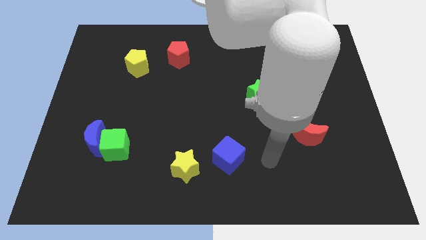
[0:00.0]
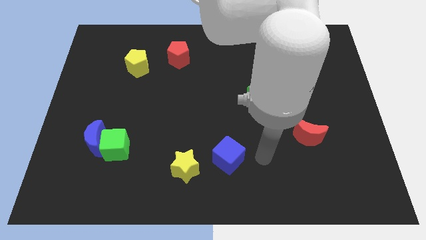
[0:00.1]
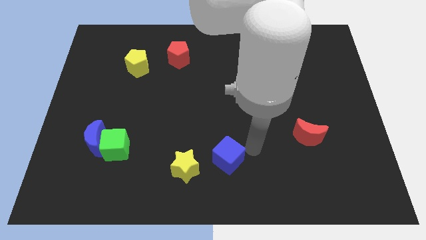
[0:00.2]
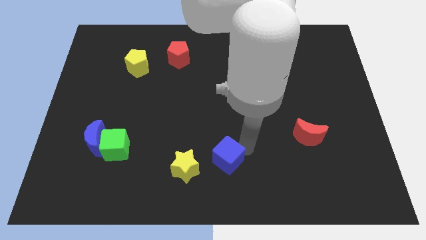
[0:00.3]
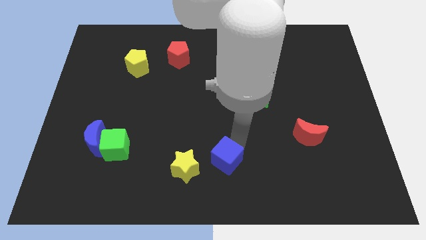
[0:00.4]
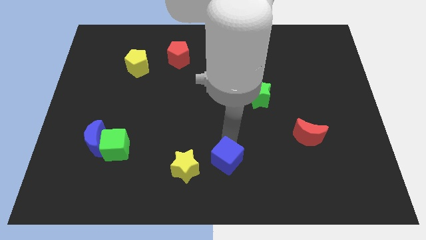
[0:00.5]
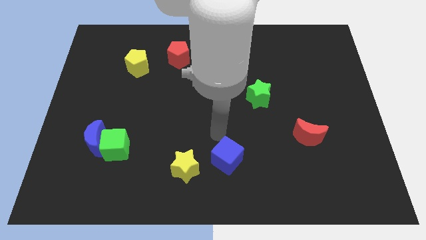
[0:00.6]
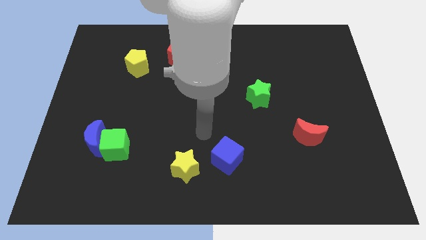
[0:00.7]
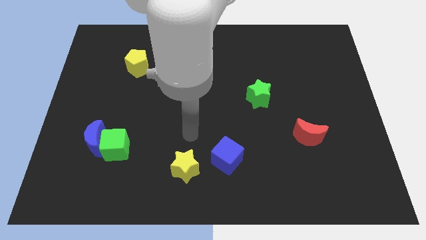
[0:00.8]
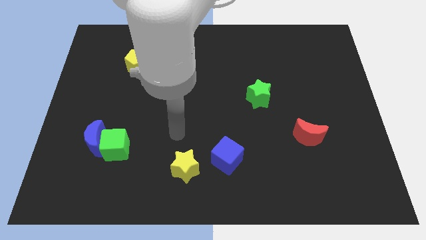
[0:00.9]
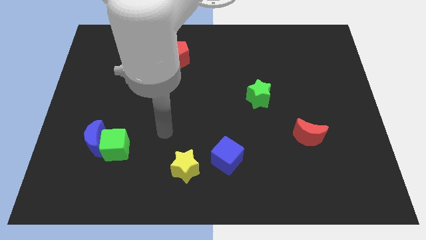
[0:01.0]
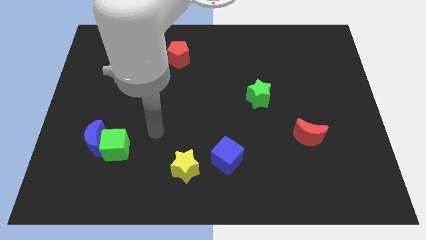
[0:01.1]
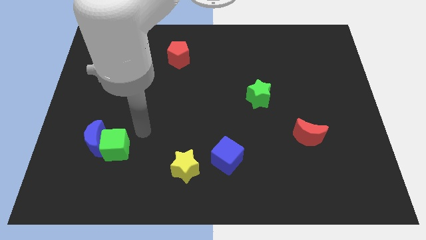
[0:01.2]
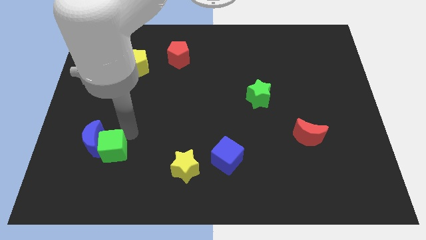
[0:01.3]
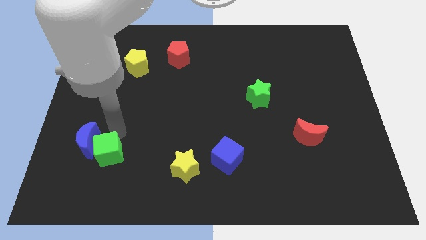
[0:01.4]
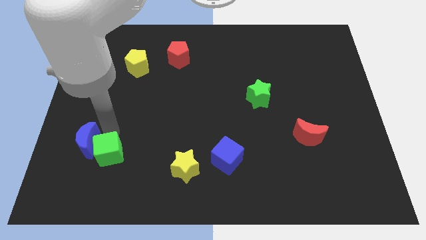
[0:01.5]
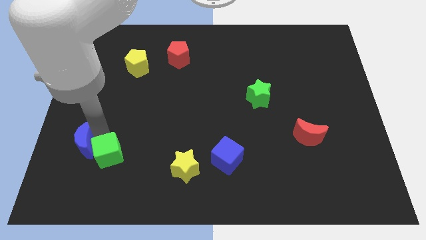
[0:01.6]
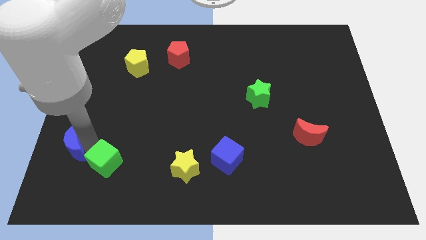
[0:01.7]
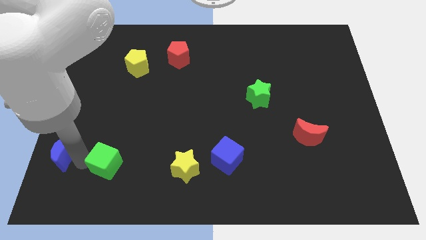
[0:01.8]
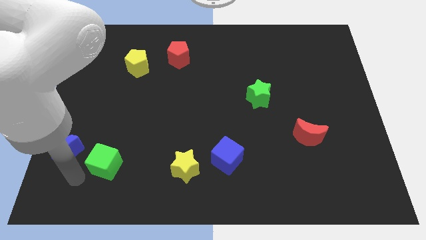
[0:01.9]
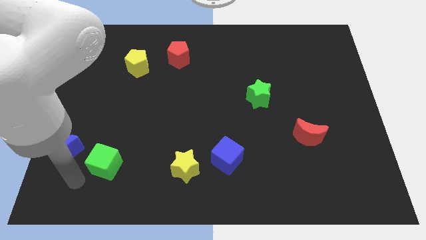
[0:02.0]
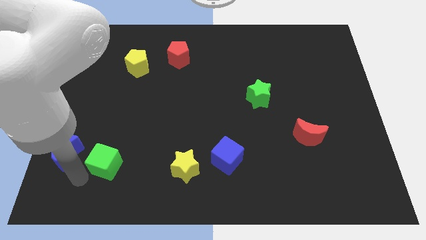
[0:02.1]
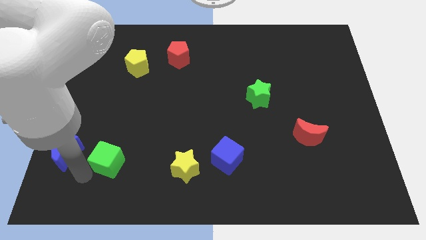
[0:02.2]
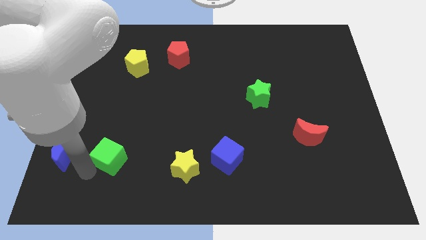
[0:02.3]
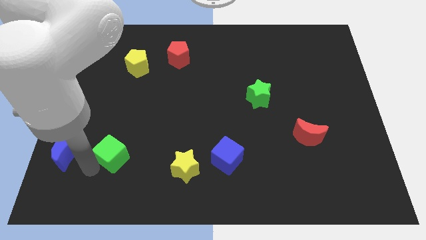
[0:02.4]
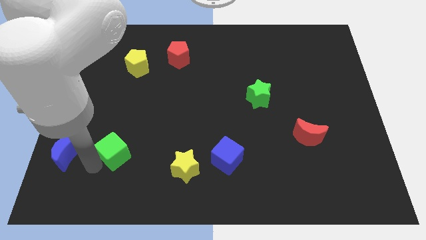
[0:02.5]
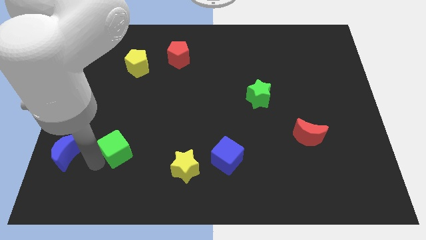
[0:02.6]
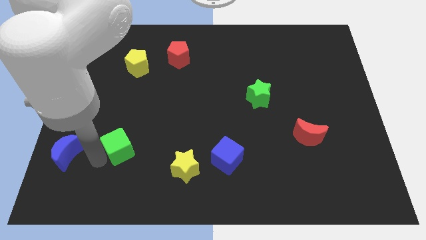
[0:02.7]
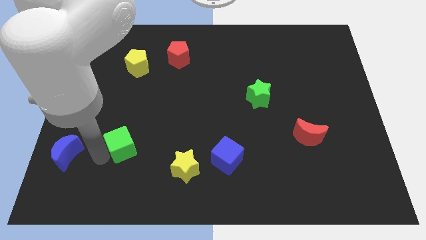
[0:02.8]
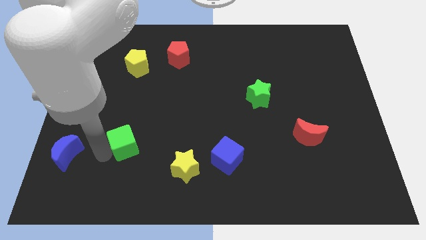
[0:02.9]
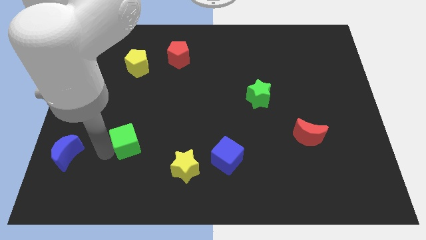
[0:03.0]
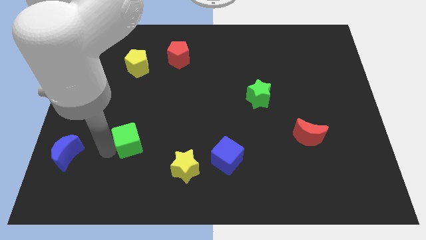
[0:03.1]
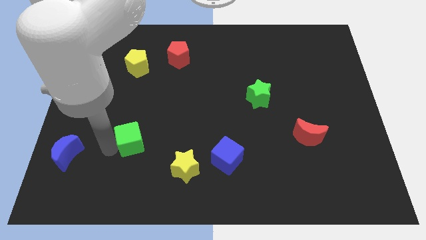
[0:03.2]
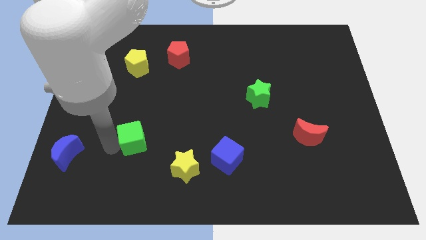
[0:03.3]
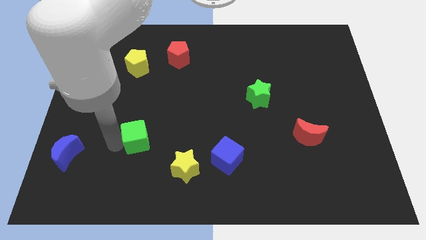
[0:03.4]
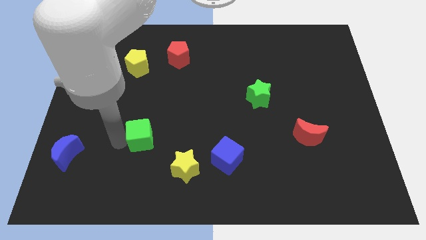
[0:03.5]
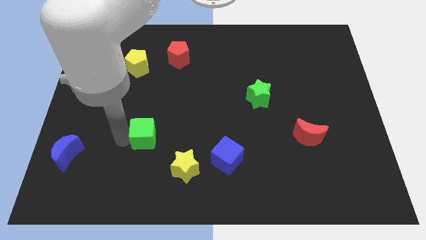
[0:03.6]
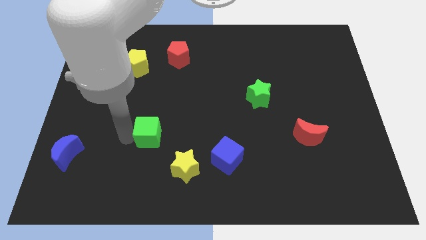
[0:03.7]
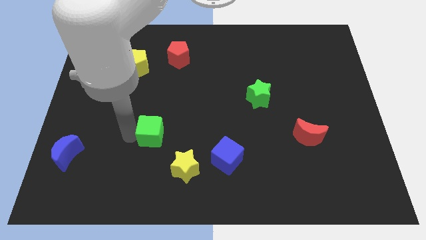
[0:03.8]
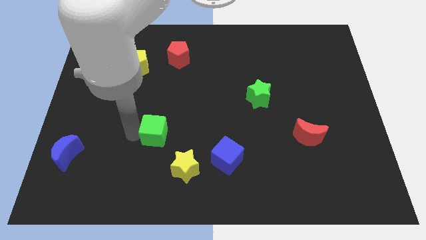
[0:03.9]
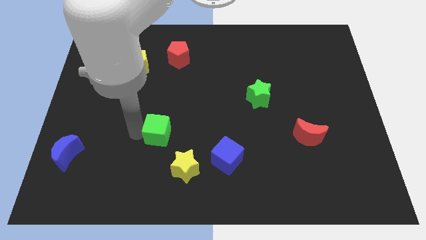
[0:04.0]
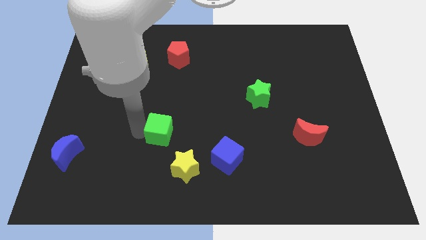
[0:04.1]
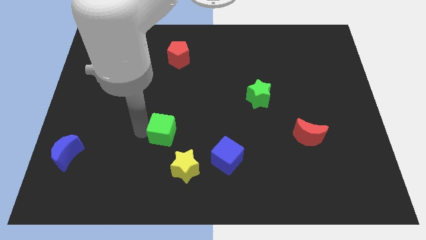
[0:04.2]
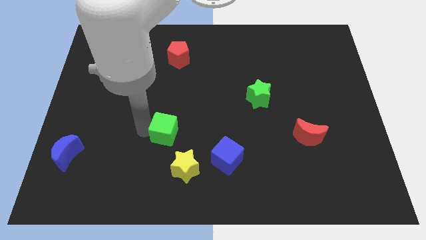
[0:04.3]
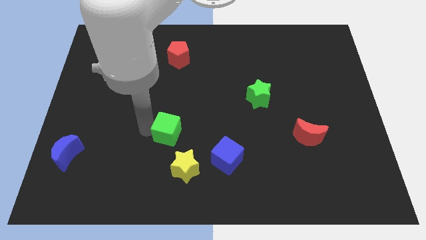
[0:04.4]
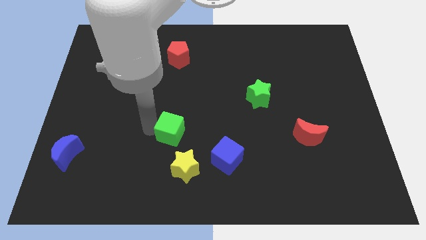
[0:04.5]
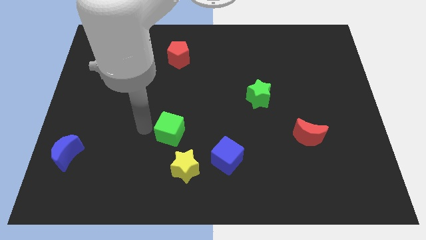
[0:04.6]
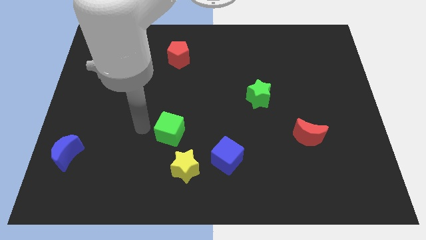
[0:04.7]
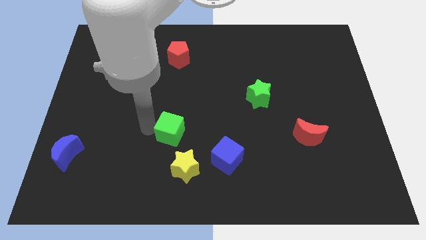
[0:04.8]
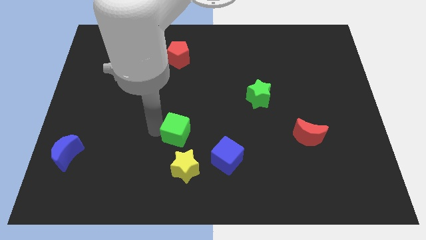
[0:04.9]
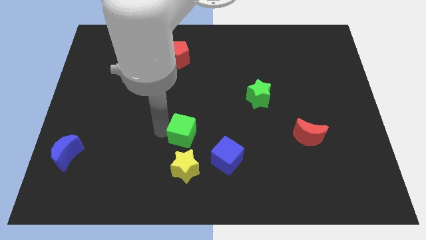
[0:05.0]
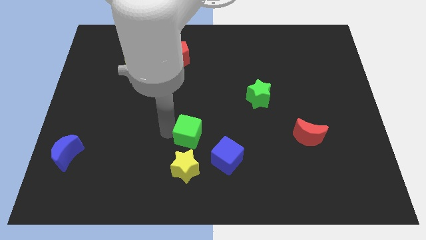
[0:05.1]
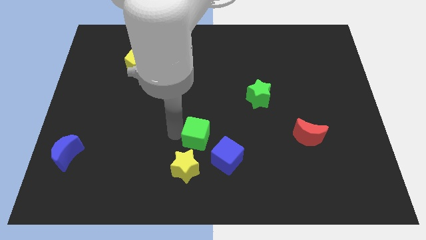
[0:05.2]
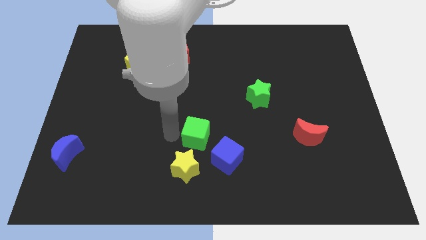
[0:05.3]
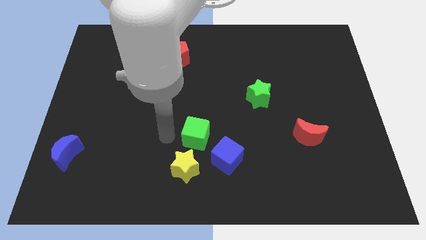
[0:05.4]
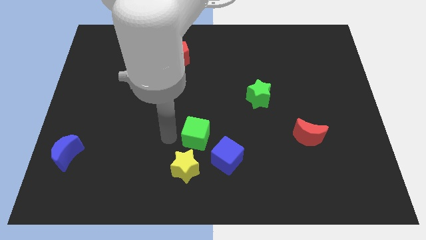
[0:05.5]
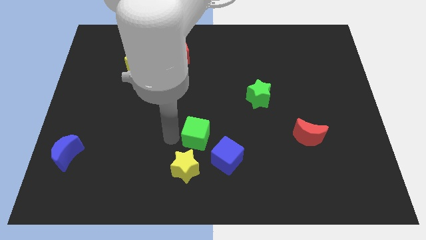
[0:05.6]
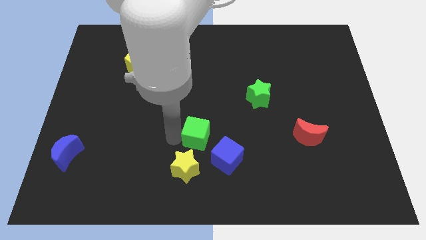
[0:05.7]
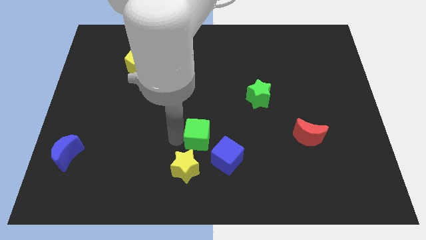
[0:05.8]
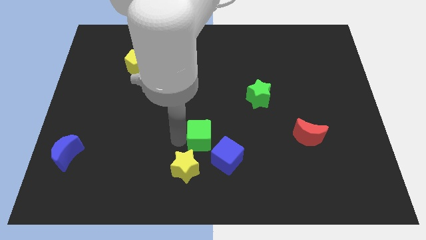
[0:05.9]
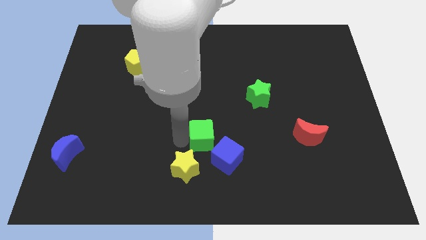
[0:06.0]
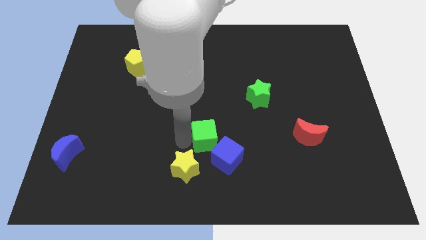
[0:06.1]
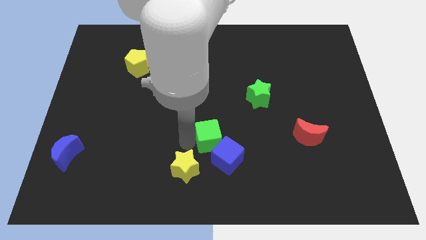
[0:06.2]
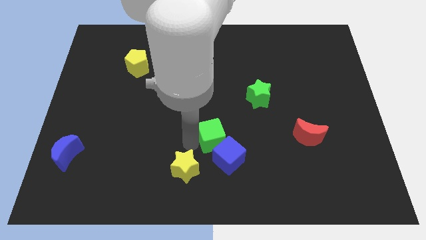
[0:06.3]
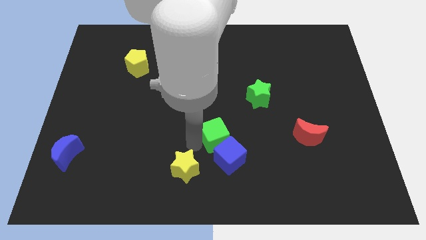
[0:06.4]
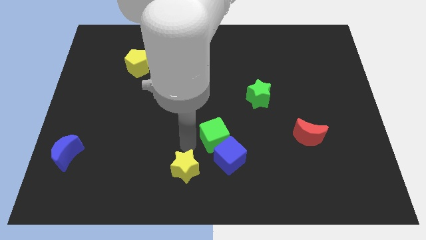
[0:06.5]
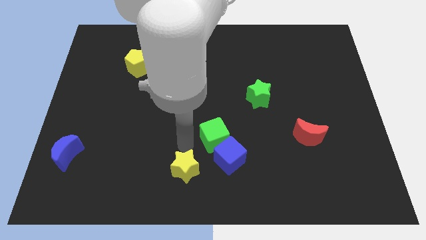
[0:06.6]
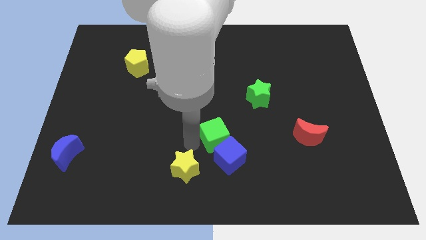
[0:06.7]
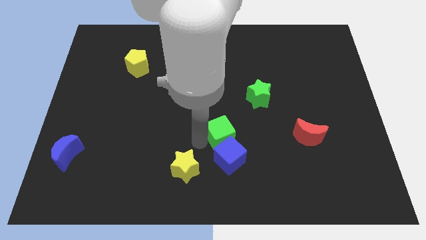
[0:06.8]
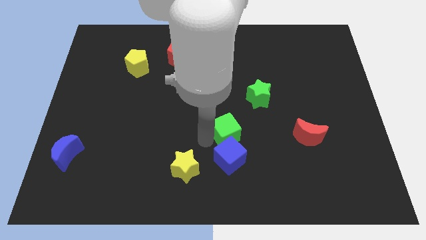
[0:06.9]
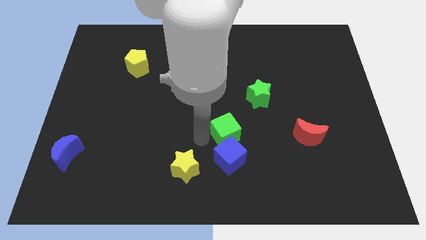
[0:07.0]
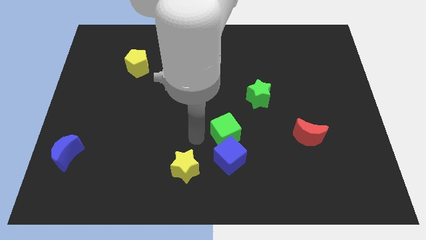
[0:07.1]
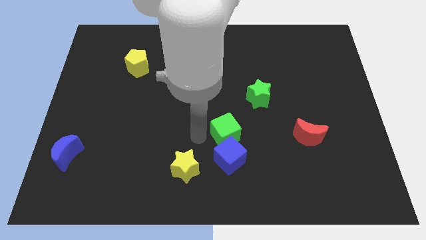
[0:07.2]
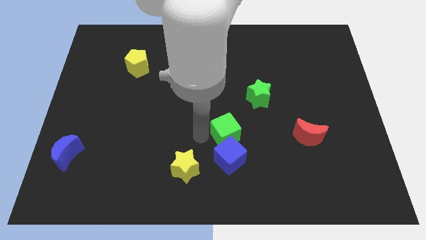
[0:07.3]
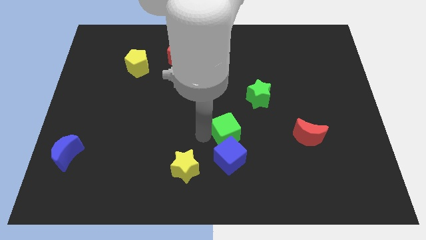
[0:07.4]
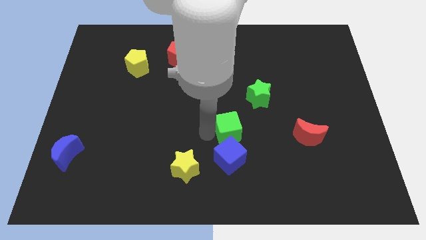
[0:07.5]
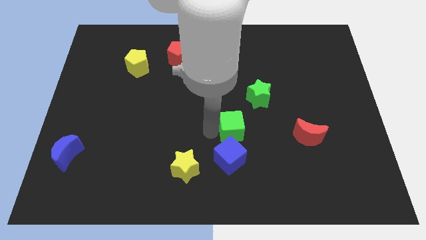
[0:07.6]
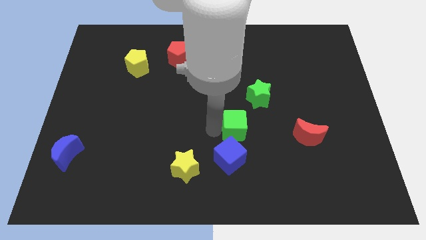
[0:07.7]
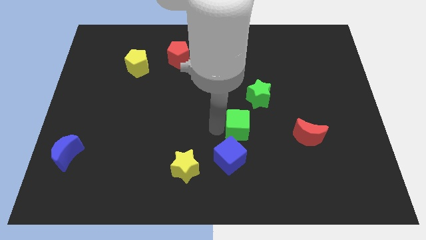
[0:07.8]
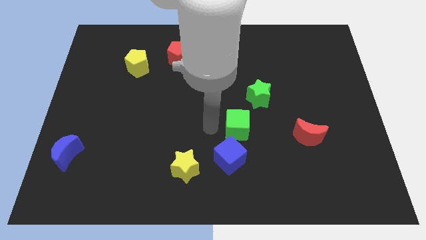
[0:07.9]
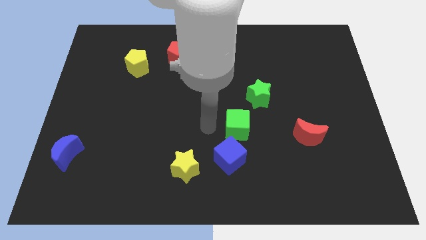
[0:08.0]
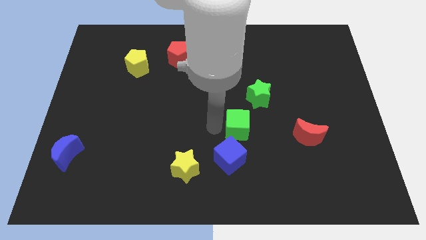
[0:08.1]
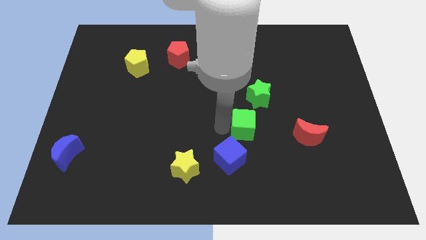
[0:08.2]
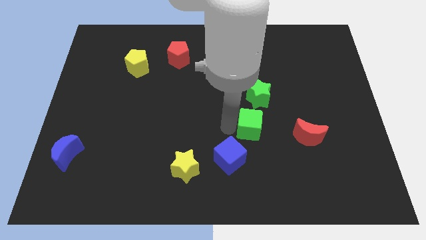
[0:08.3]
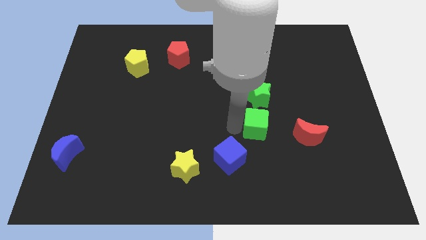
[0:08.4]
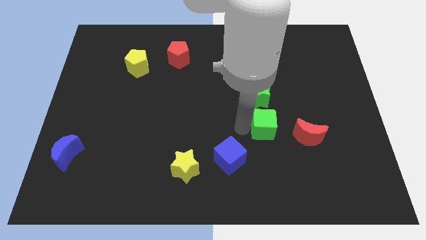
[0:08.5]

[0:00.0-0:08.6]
slide the green cube to the top left of the red moon
